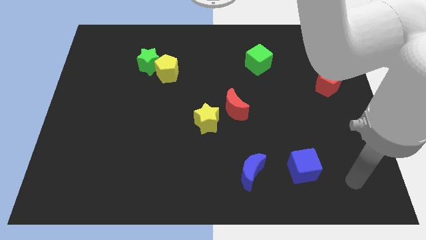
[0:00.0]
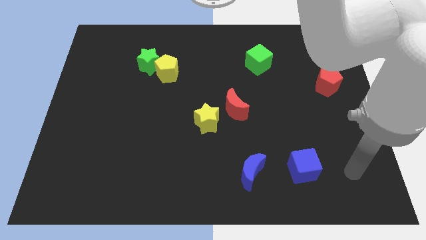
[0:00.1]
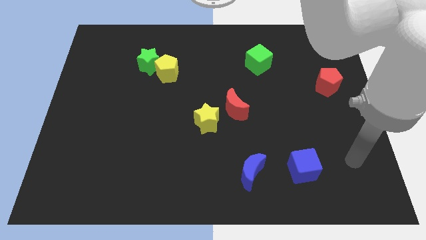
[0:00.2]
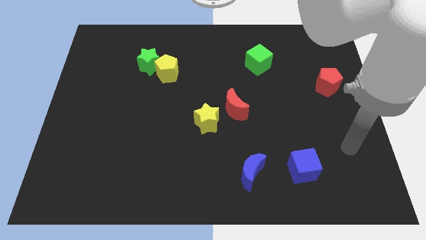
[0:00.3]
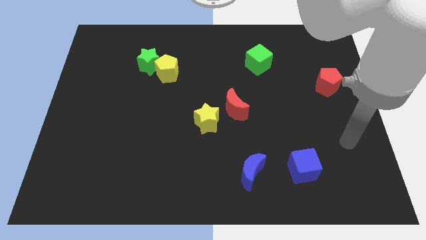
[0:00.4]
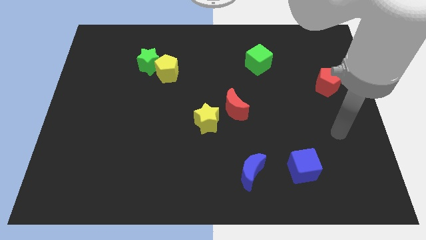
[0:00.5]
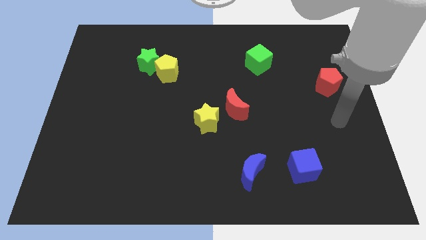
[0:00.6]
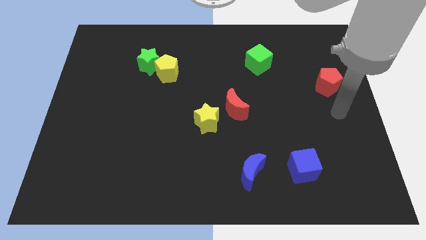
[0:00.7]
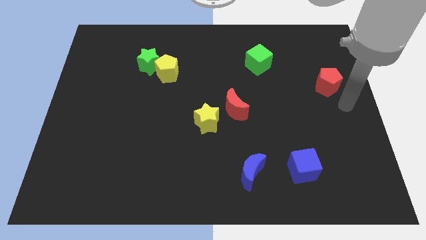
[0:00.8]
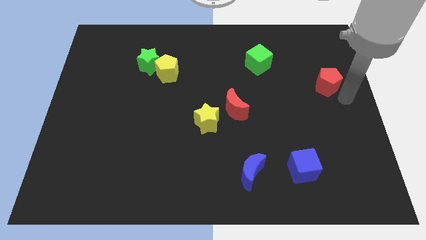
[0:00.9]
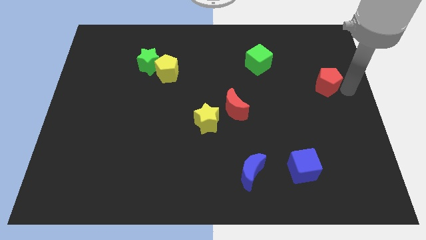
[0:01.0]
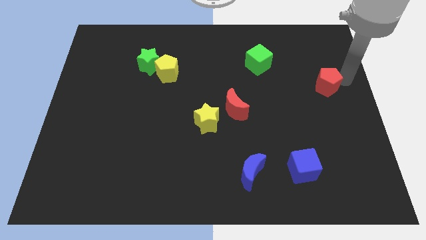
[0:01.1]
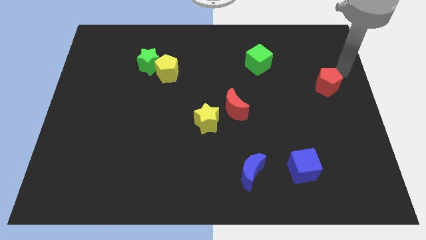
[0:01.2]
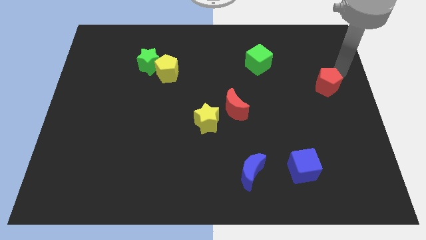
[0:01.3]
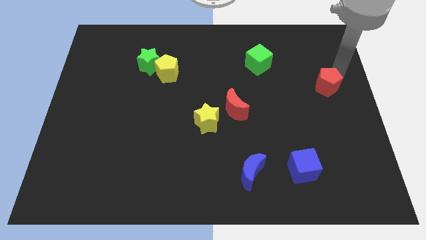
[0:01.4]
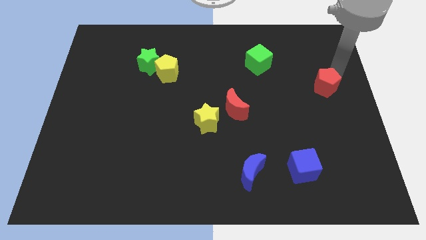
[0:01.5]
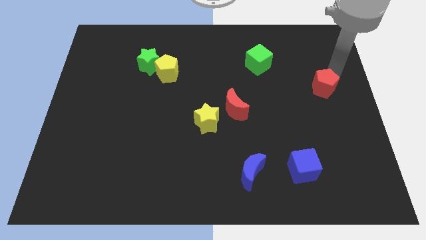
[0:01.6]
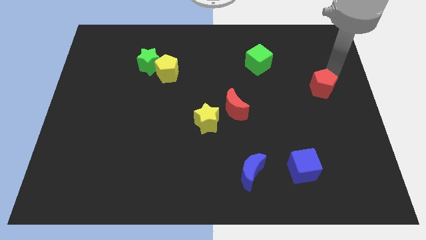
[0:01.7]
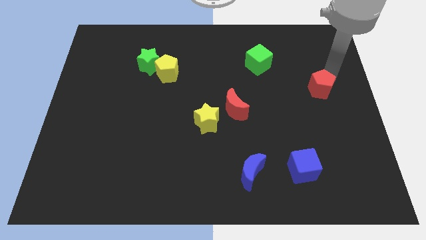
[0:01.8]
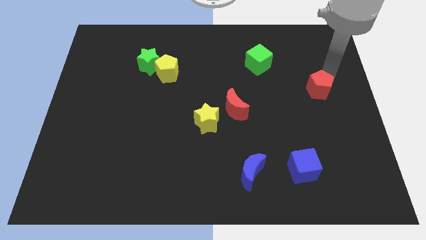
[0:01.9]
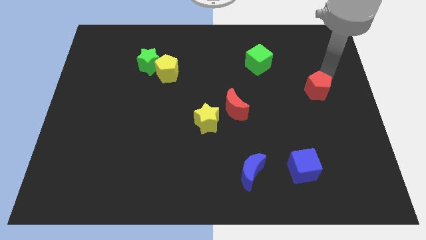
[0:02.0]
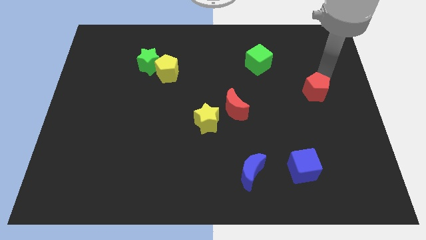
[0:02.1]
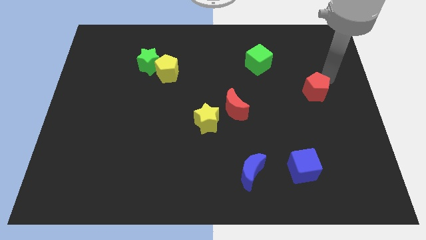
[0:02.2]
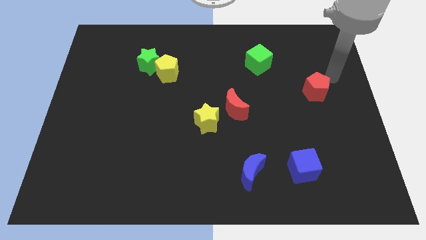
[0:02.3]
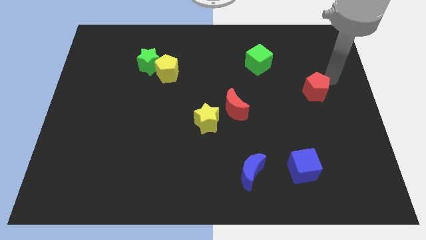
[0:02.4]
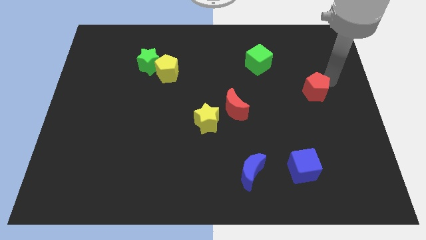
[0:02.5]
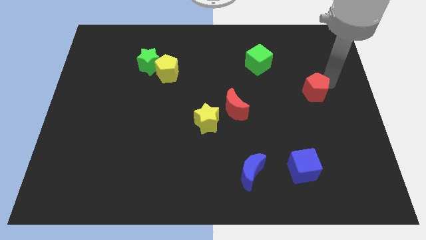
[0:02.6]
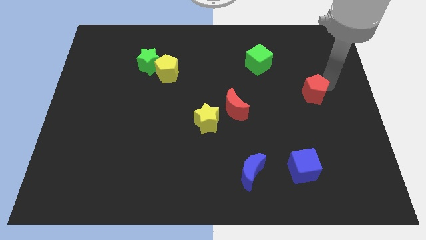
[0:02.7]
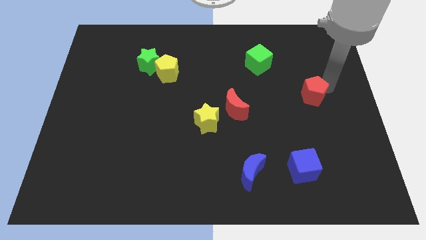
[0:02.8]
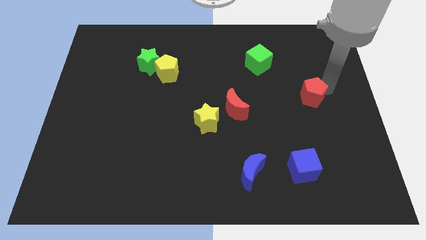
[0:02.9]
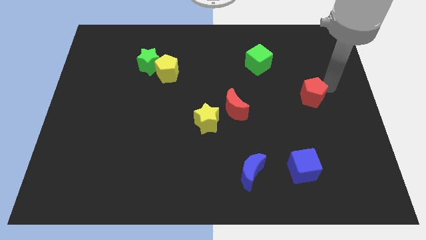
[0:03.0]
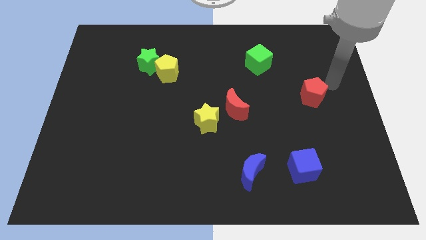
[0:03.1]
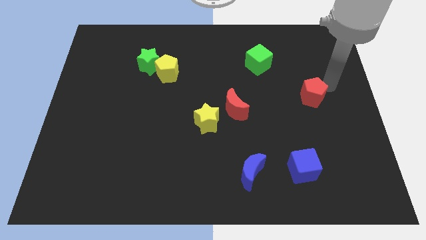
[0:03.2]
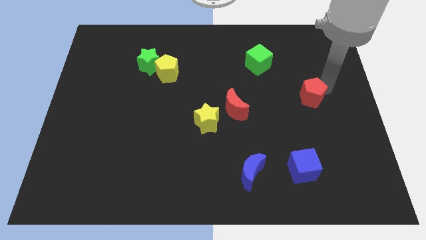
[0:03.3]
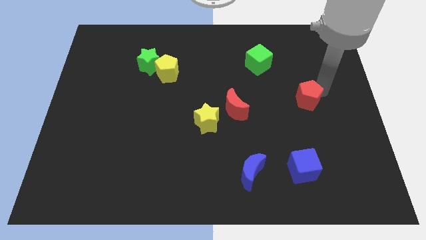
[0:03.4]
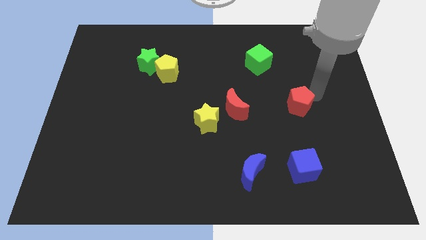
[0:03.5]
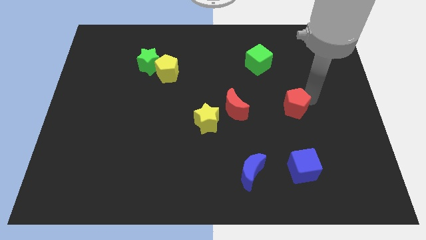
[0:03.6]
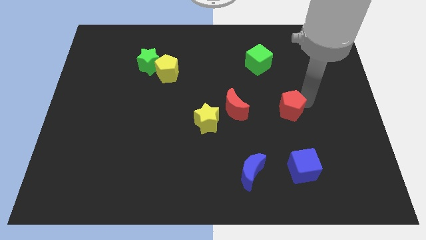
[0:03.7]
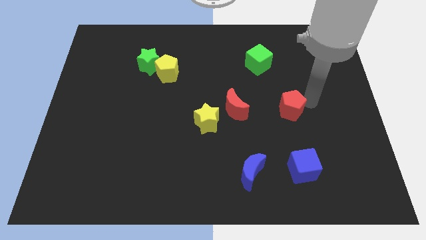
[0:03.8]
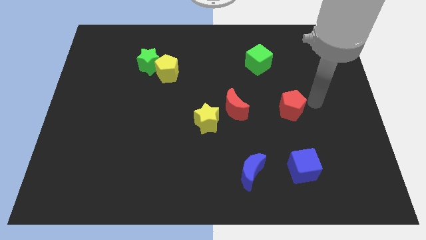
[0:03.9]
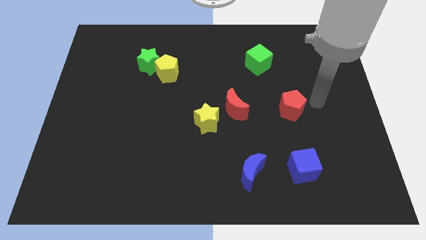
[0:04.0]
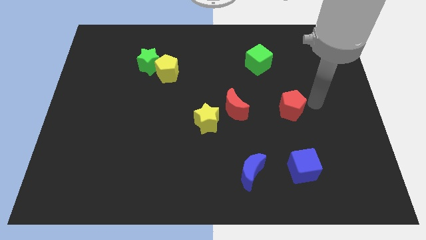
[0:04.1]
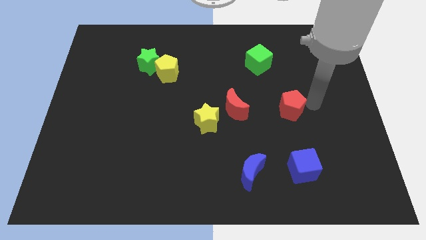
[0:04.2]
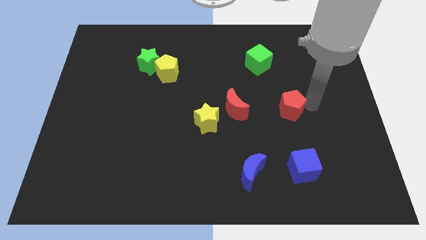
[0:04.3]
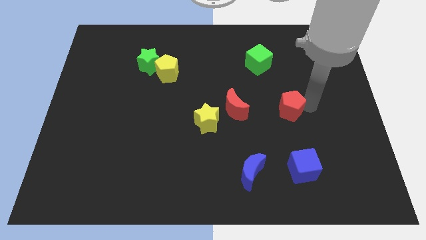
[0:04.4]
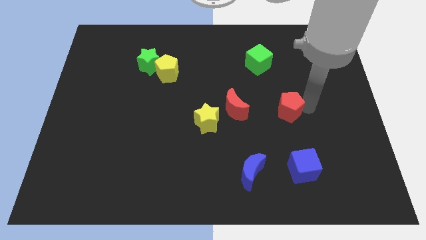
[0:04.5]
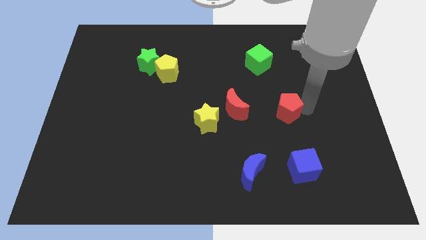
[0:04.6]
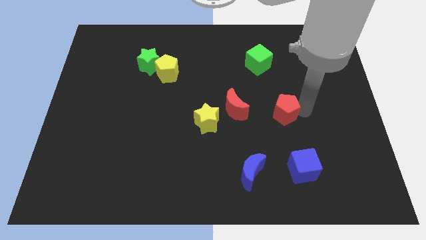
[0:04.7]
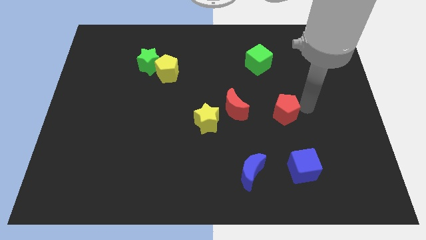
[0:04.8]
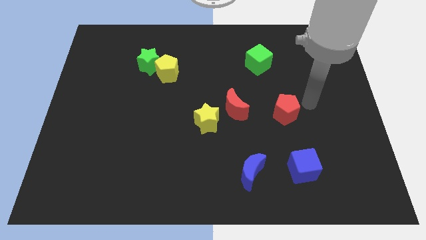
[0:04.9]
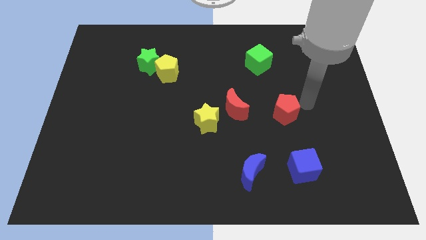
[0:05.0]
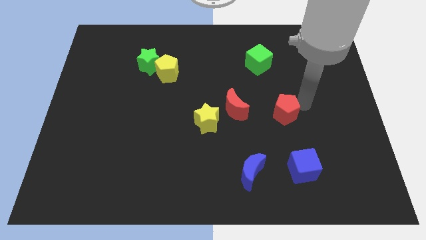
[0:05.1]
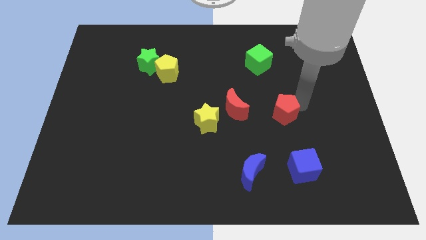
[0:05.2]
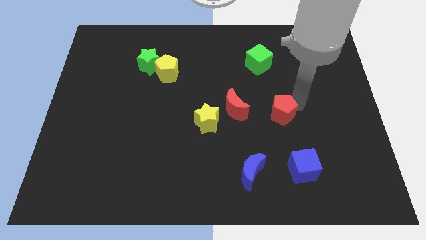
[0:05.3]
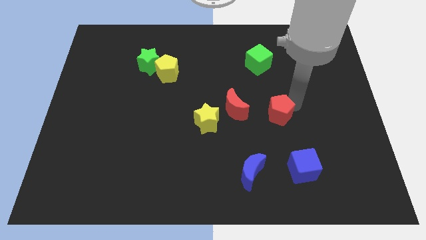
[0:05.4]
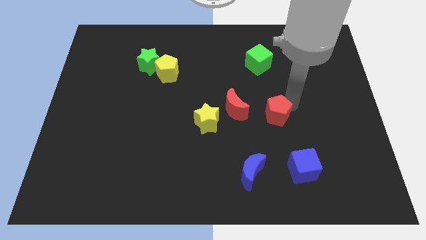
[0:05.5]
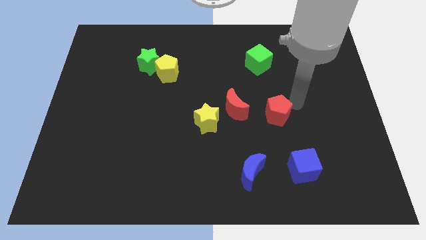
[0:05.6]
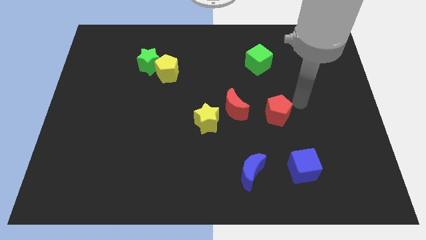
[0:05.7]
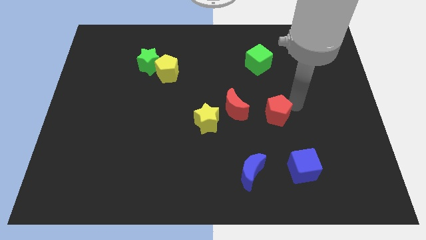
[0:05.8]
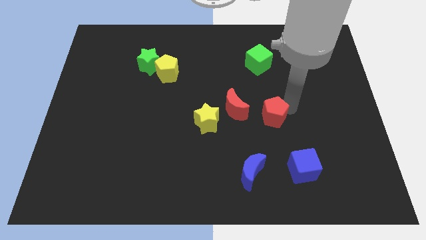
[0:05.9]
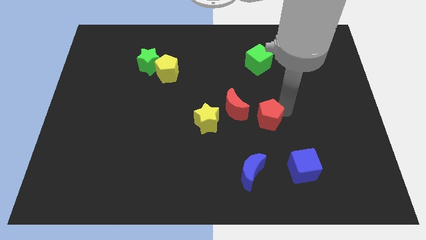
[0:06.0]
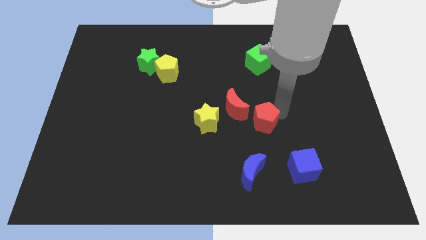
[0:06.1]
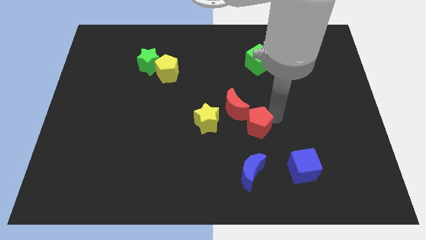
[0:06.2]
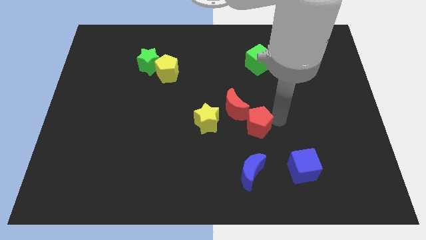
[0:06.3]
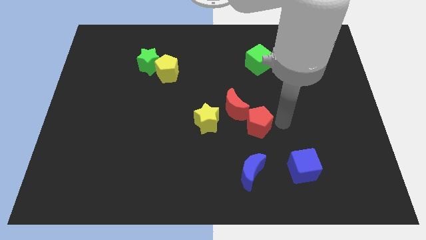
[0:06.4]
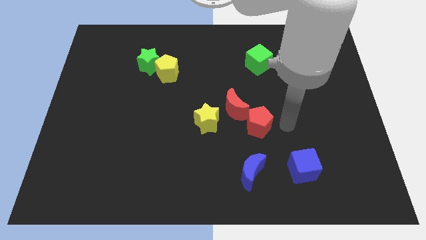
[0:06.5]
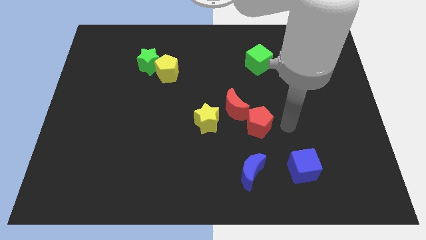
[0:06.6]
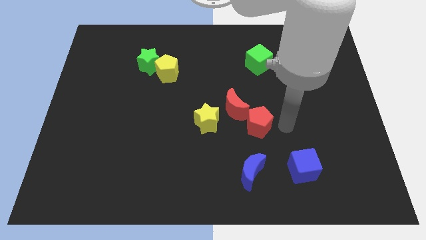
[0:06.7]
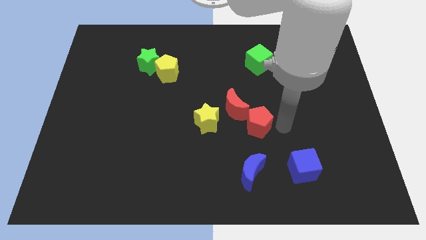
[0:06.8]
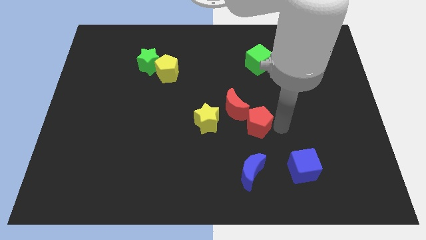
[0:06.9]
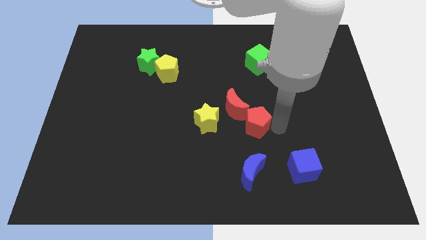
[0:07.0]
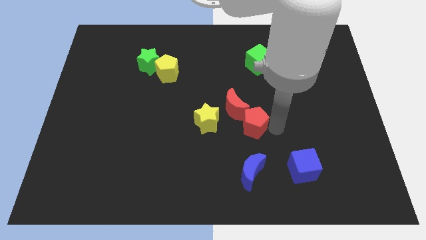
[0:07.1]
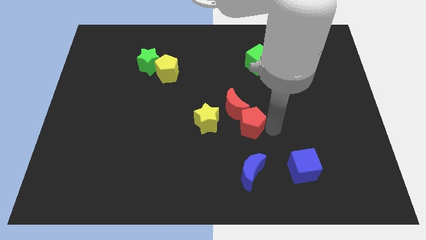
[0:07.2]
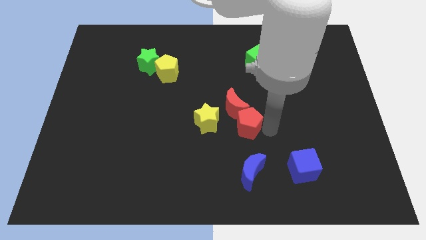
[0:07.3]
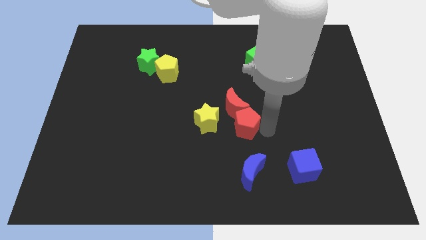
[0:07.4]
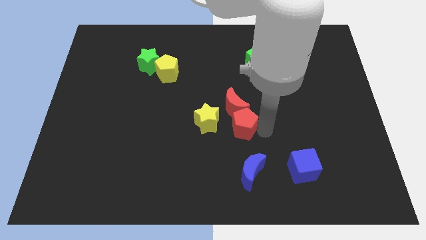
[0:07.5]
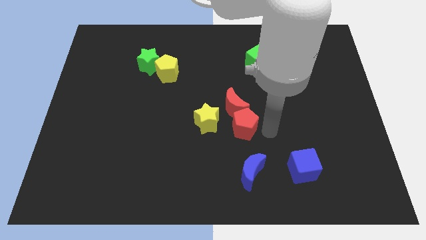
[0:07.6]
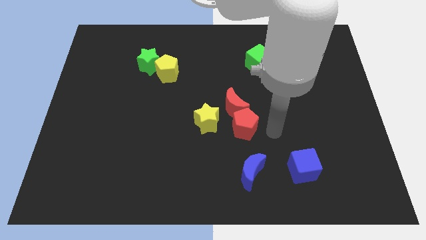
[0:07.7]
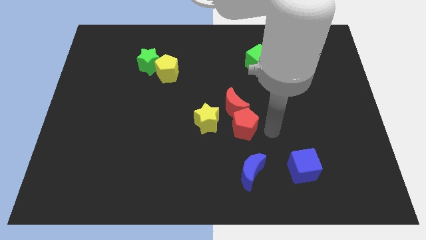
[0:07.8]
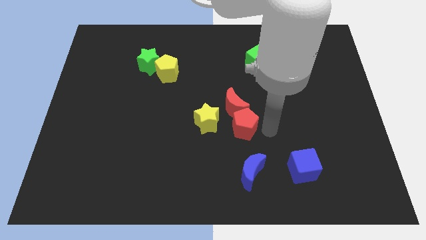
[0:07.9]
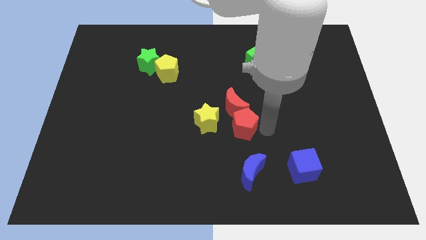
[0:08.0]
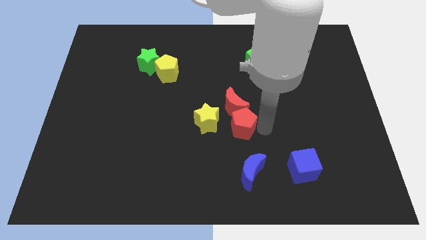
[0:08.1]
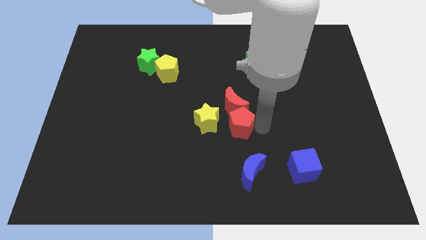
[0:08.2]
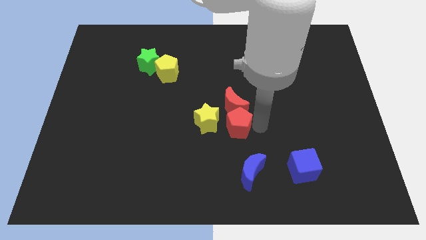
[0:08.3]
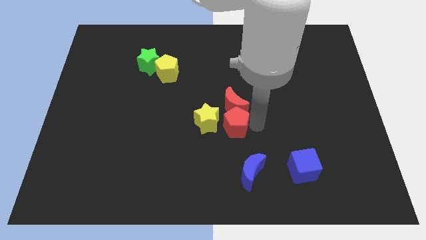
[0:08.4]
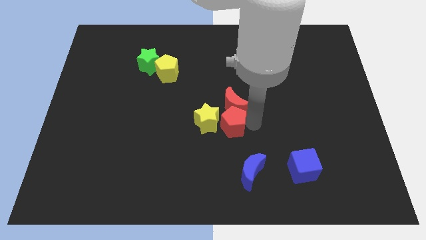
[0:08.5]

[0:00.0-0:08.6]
move the red pentagon close to the yellow star
